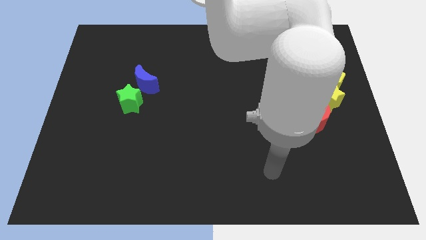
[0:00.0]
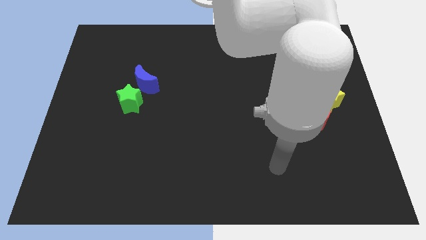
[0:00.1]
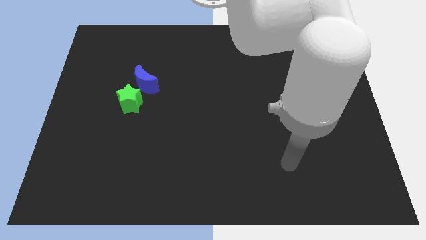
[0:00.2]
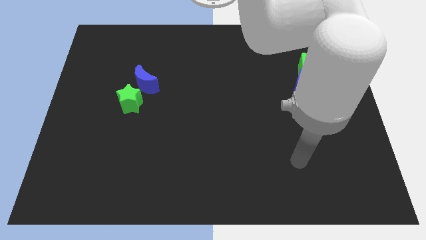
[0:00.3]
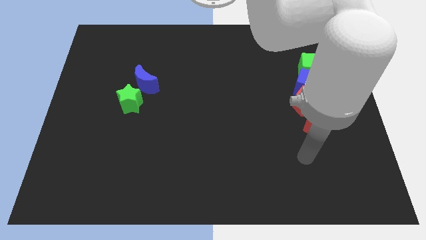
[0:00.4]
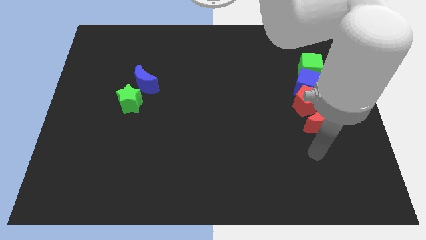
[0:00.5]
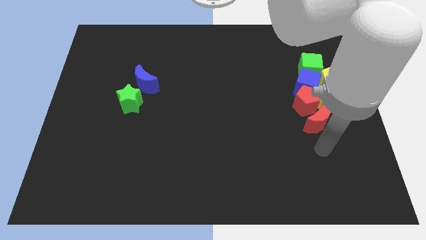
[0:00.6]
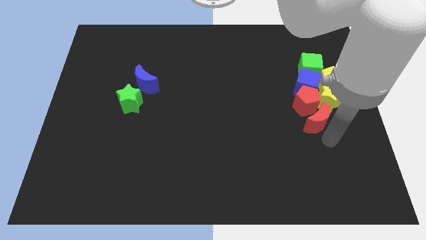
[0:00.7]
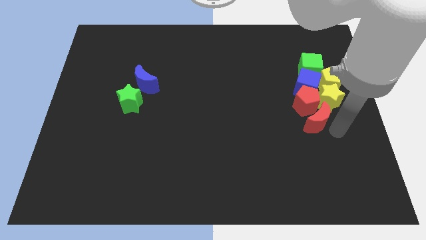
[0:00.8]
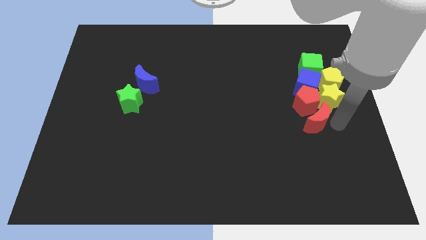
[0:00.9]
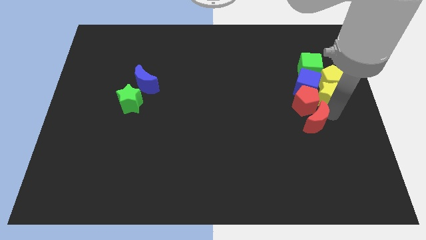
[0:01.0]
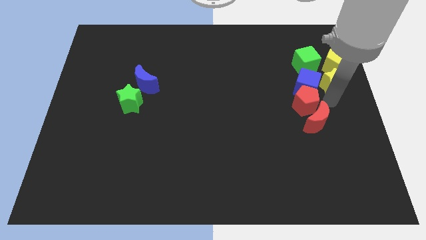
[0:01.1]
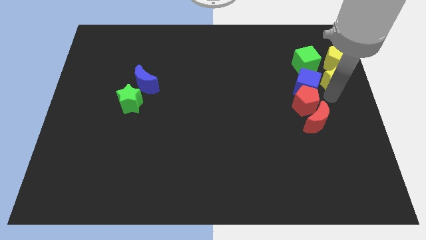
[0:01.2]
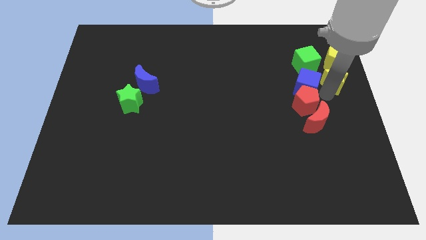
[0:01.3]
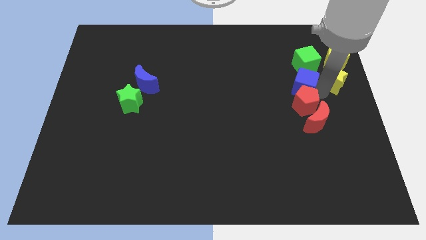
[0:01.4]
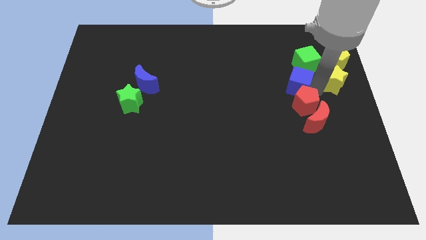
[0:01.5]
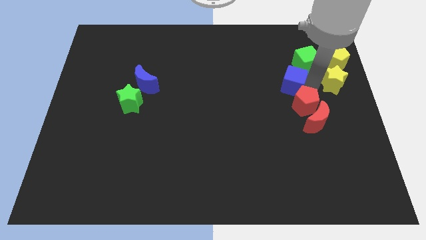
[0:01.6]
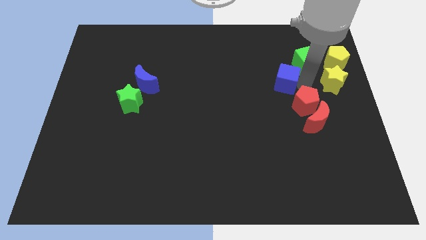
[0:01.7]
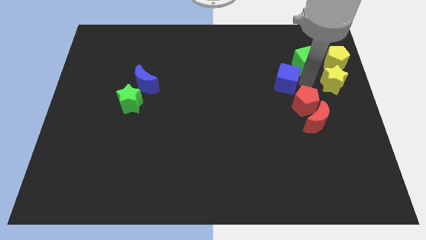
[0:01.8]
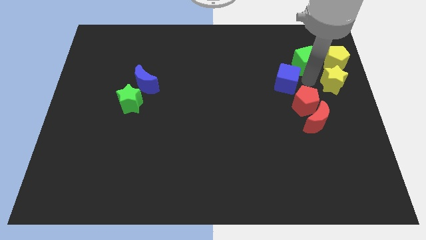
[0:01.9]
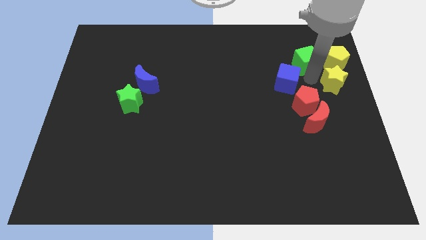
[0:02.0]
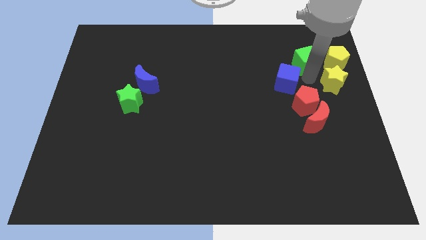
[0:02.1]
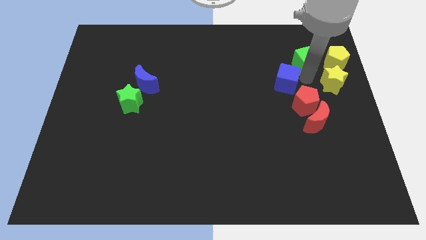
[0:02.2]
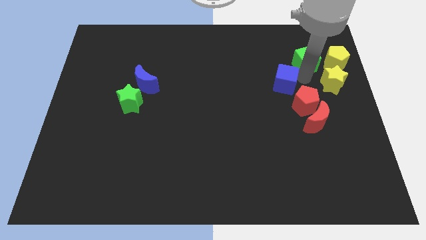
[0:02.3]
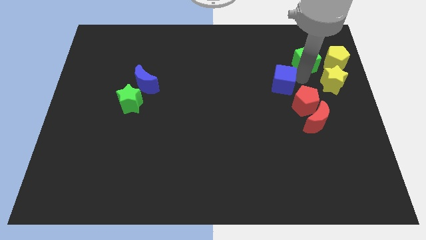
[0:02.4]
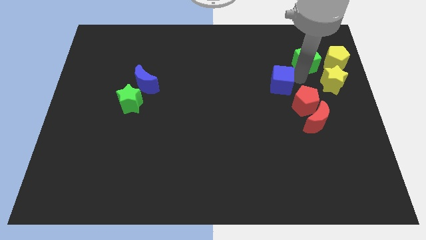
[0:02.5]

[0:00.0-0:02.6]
separate the blue cube from the group of blocks

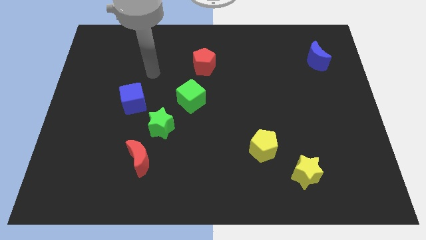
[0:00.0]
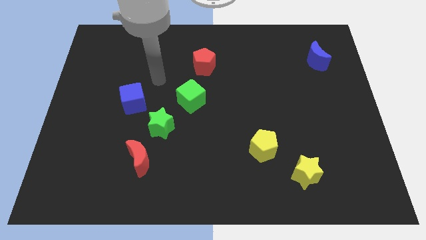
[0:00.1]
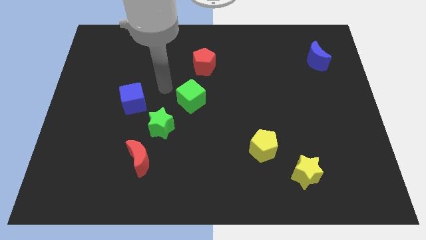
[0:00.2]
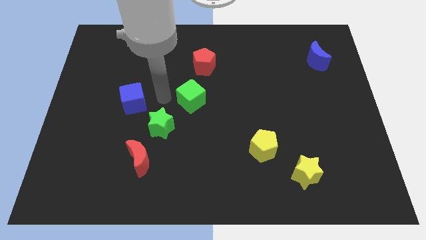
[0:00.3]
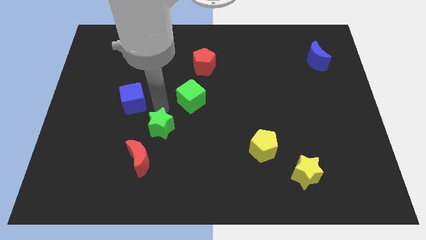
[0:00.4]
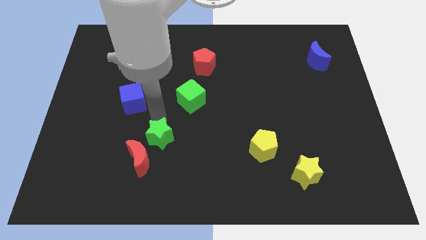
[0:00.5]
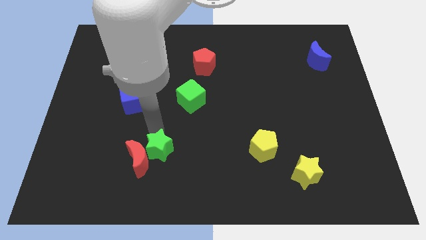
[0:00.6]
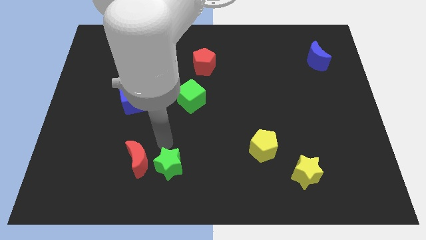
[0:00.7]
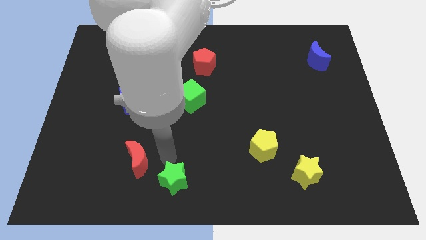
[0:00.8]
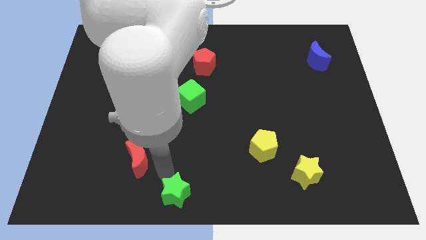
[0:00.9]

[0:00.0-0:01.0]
pull the red moon apart from the green star

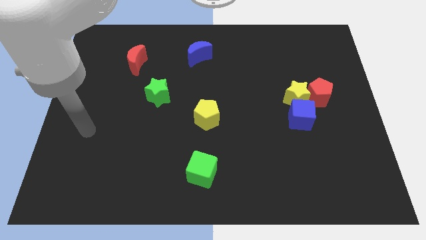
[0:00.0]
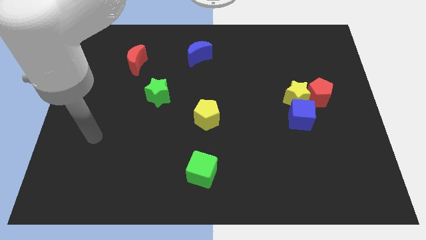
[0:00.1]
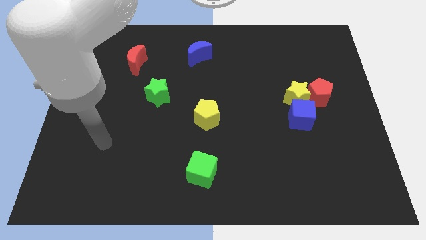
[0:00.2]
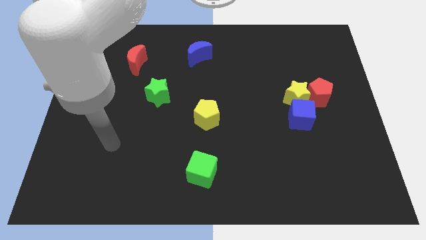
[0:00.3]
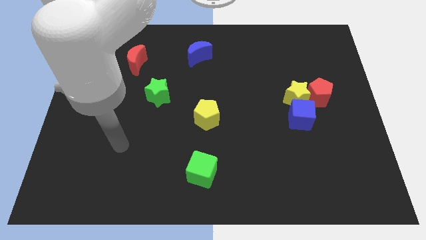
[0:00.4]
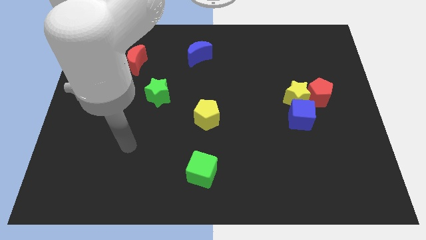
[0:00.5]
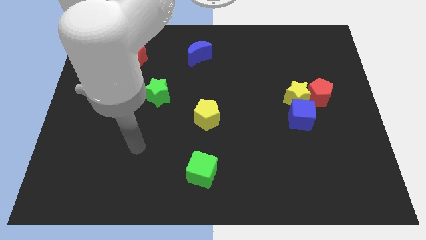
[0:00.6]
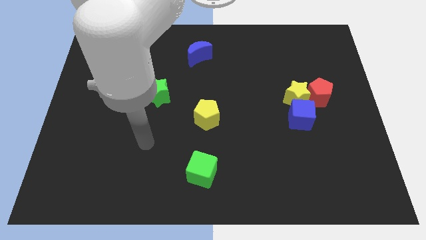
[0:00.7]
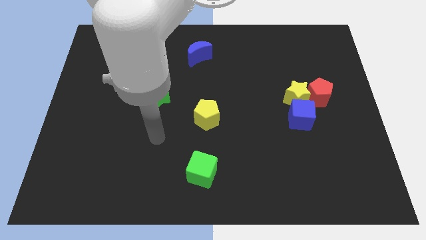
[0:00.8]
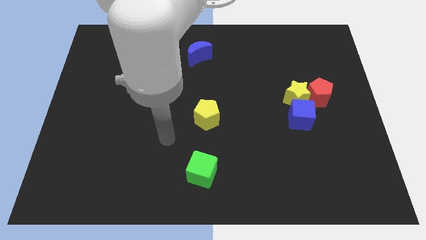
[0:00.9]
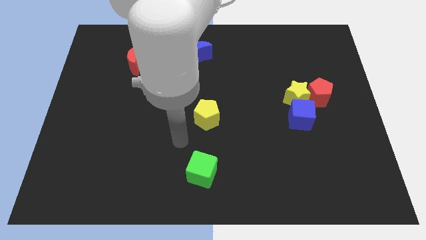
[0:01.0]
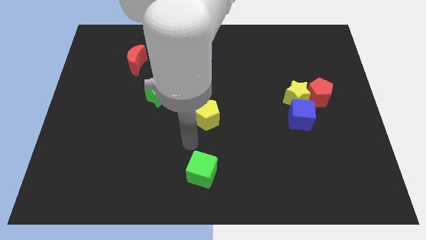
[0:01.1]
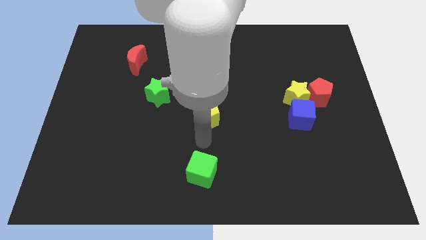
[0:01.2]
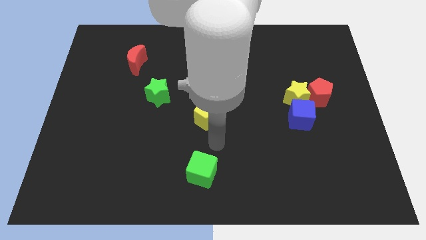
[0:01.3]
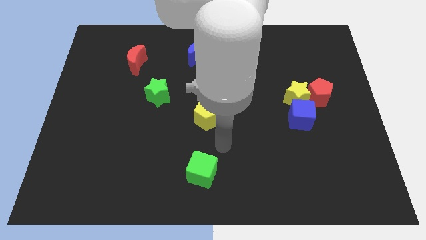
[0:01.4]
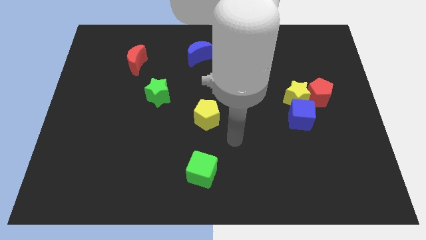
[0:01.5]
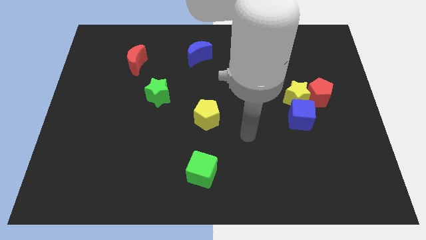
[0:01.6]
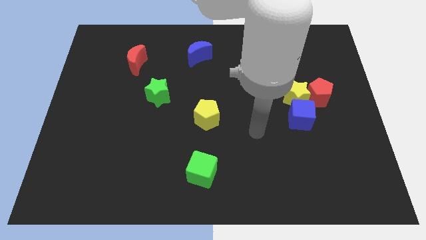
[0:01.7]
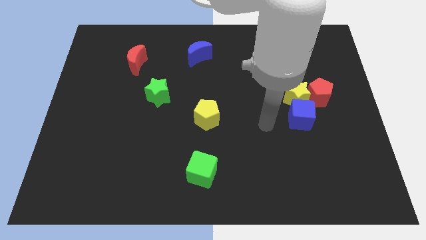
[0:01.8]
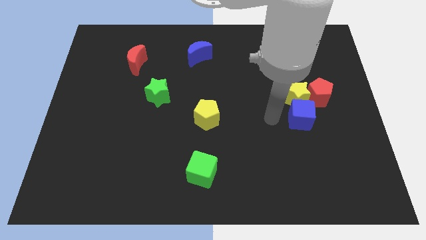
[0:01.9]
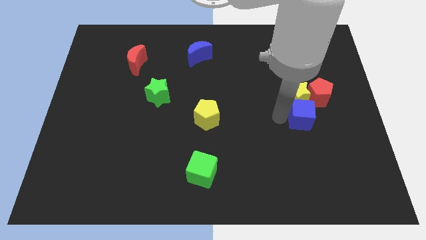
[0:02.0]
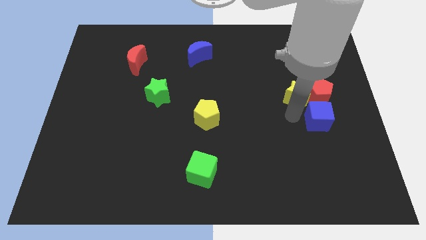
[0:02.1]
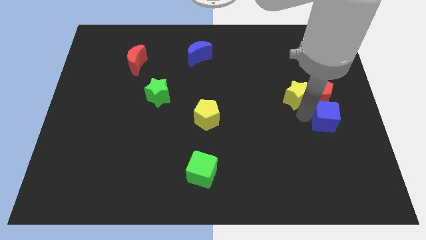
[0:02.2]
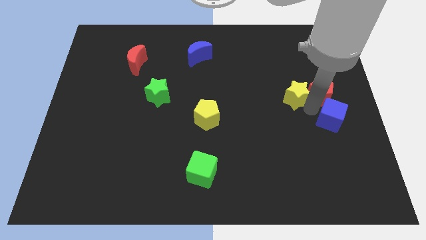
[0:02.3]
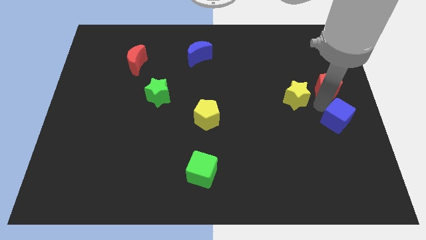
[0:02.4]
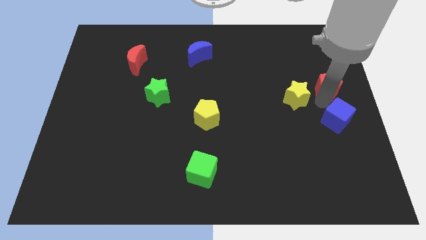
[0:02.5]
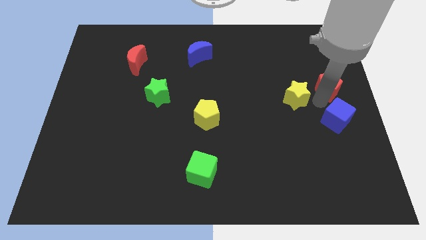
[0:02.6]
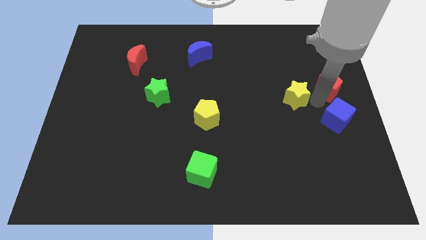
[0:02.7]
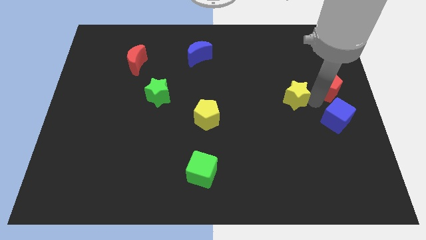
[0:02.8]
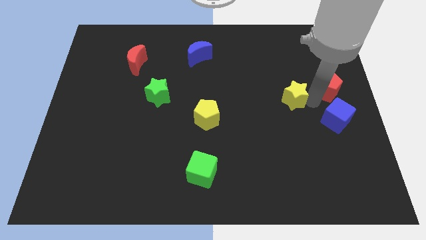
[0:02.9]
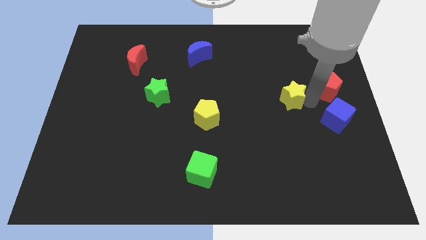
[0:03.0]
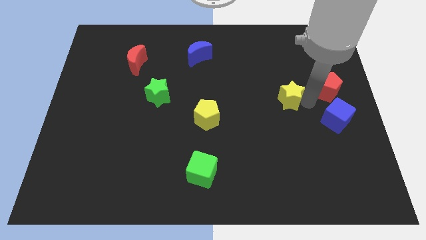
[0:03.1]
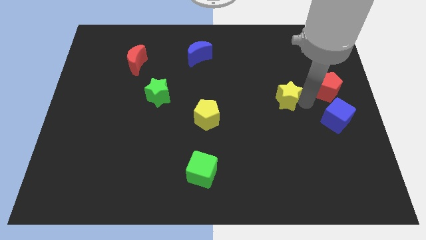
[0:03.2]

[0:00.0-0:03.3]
pull the yellow star apart from the red pentagon and blue cube

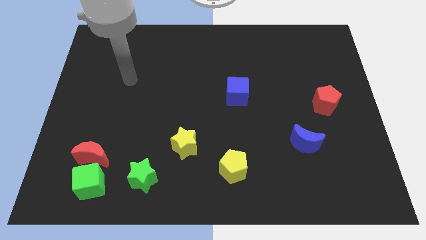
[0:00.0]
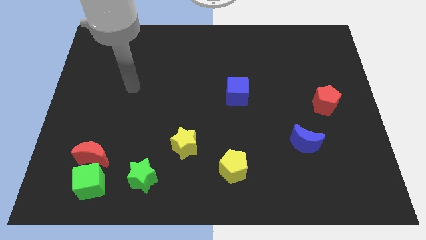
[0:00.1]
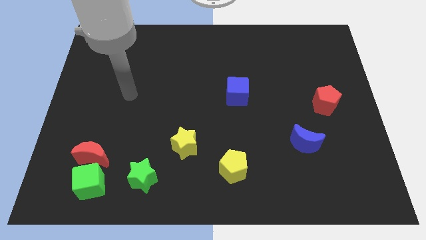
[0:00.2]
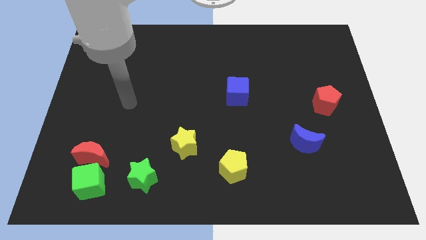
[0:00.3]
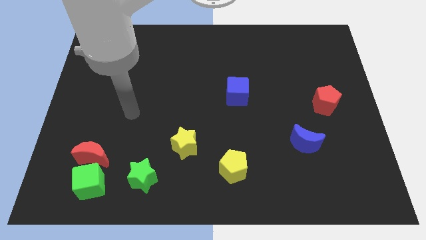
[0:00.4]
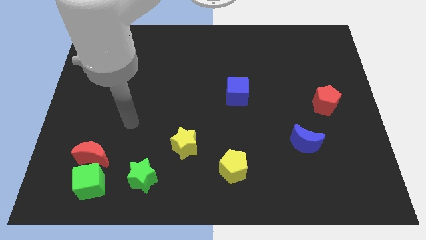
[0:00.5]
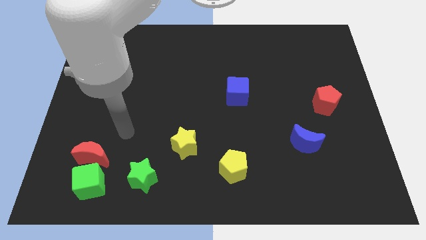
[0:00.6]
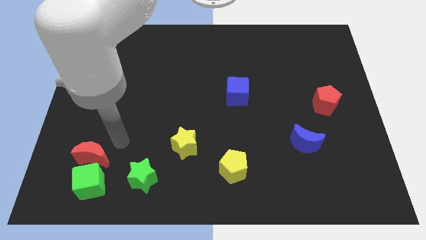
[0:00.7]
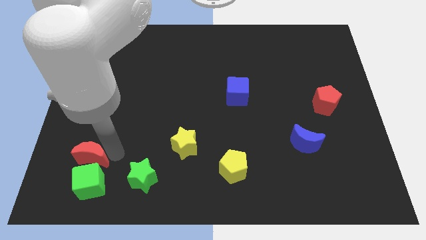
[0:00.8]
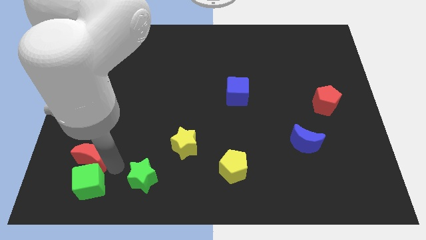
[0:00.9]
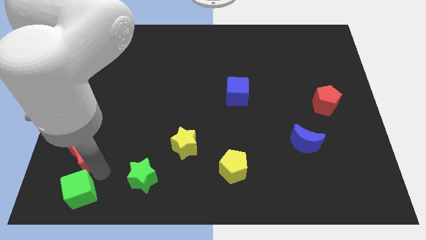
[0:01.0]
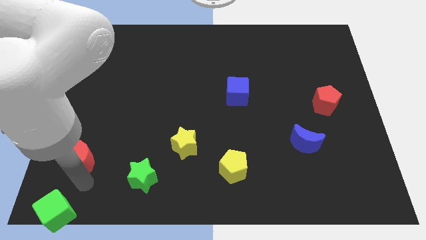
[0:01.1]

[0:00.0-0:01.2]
move the red moon away from the green cube

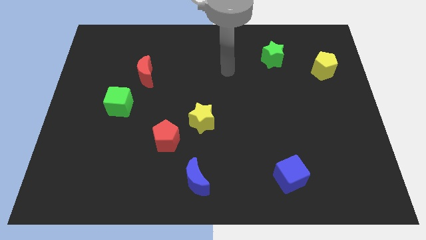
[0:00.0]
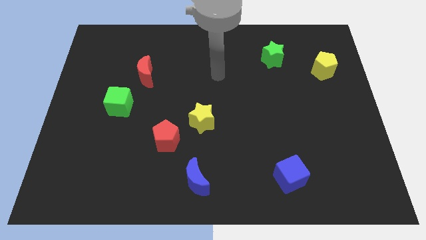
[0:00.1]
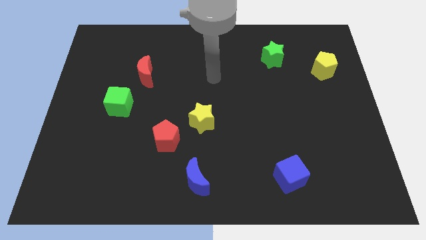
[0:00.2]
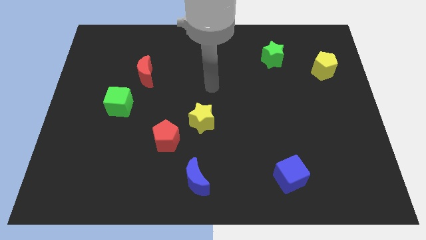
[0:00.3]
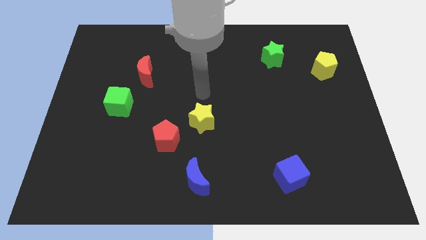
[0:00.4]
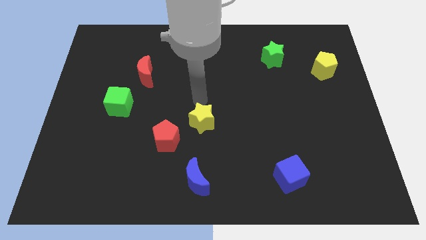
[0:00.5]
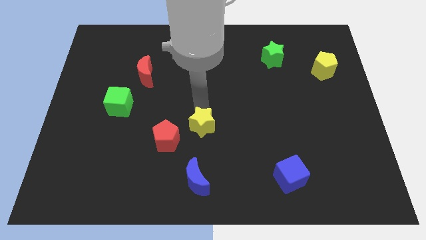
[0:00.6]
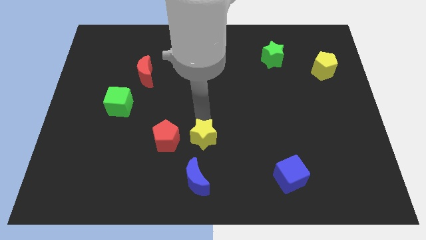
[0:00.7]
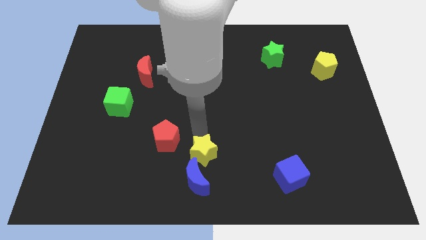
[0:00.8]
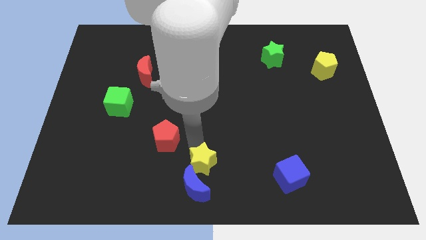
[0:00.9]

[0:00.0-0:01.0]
separate the red pentagon from the yellow star

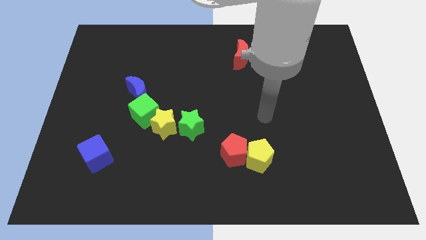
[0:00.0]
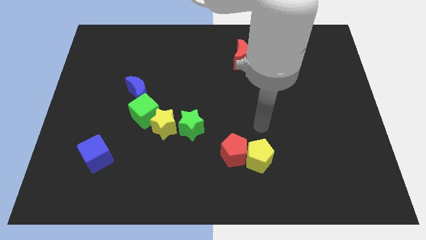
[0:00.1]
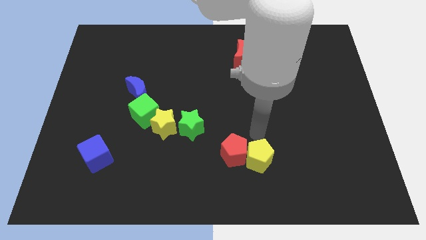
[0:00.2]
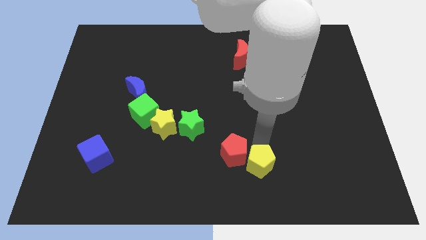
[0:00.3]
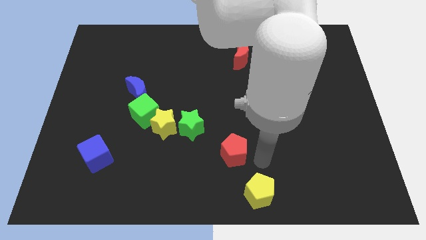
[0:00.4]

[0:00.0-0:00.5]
separate the red pentagon from the yellow pentagon
